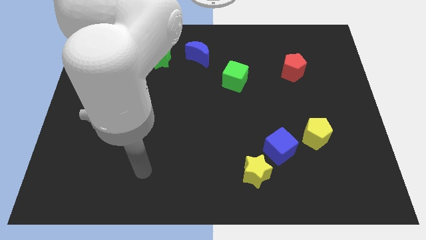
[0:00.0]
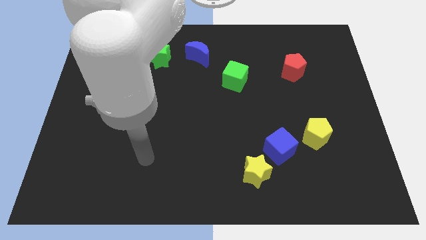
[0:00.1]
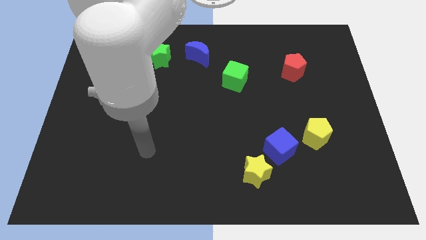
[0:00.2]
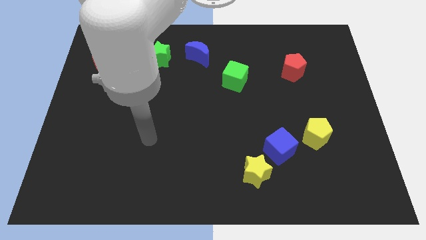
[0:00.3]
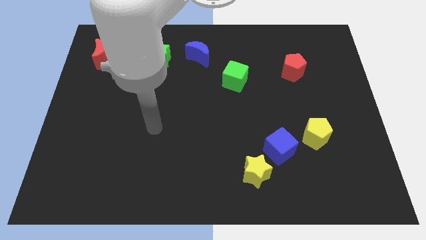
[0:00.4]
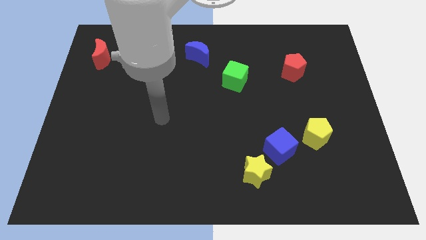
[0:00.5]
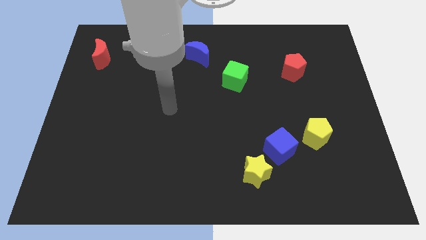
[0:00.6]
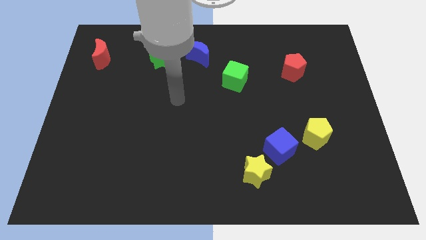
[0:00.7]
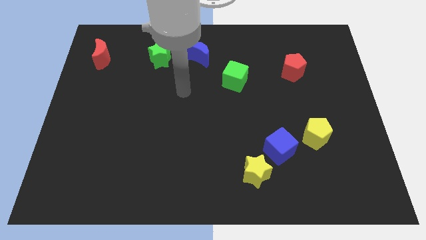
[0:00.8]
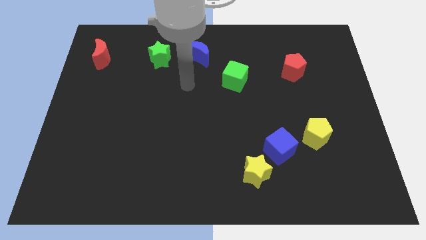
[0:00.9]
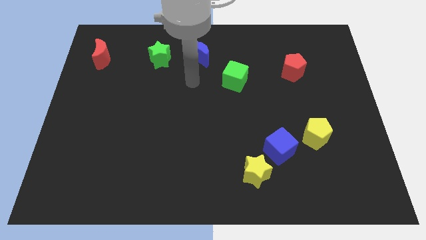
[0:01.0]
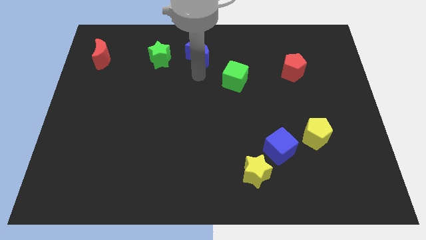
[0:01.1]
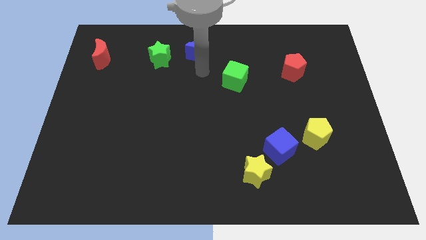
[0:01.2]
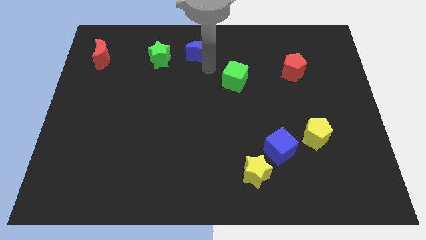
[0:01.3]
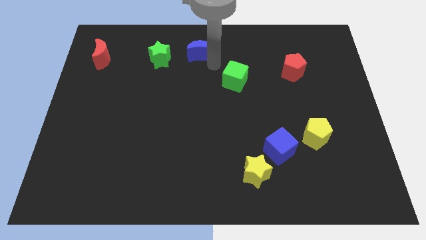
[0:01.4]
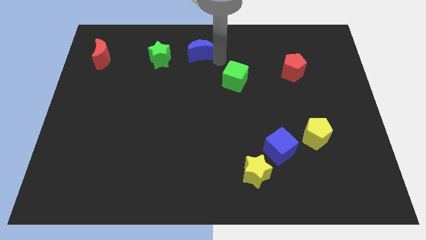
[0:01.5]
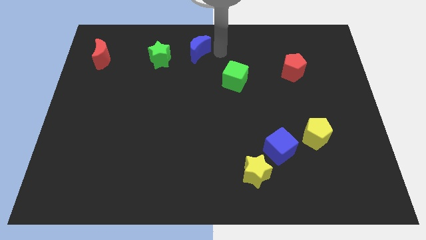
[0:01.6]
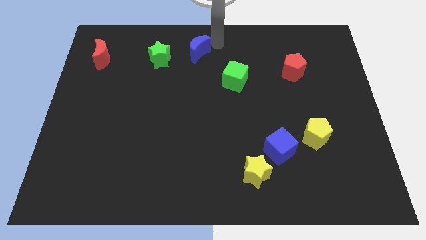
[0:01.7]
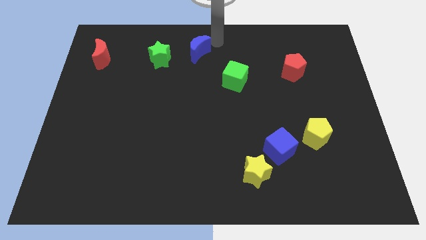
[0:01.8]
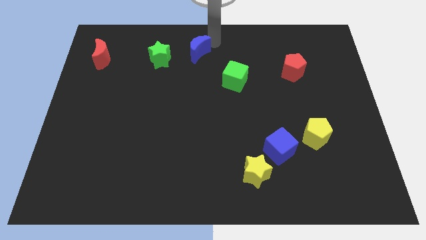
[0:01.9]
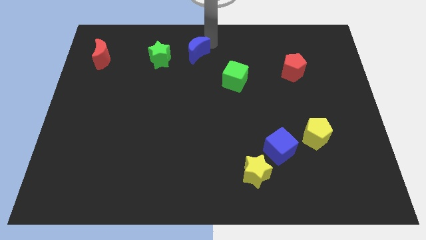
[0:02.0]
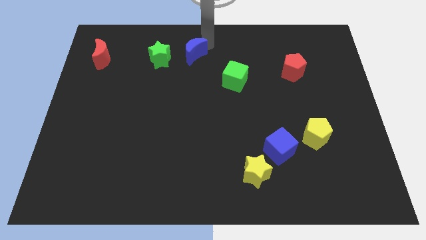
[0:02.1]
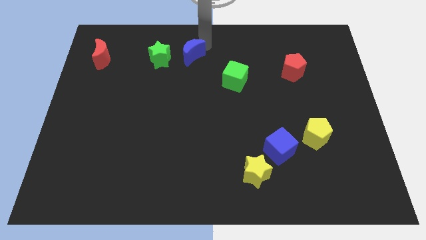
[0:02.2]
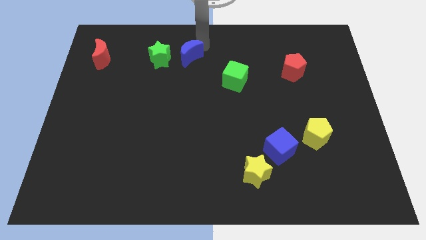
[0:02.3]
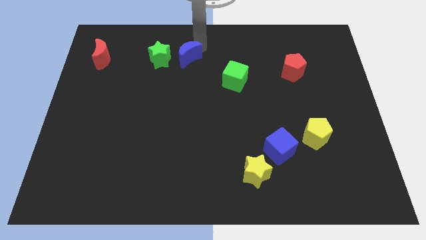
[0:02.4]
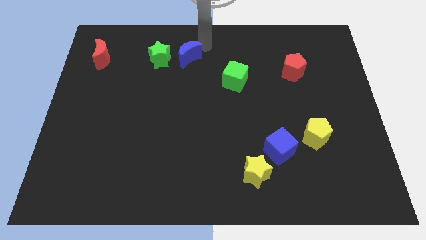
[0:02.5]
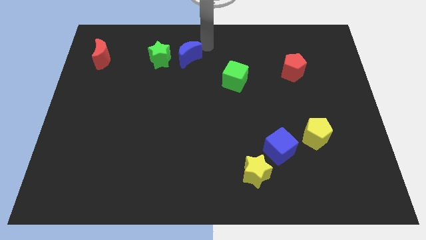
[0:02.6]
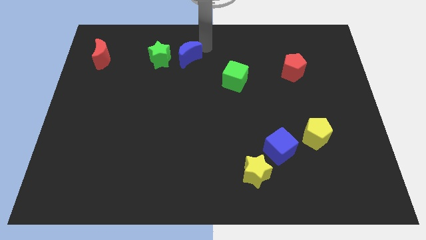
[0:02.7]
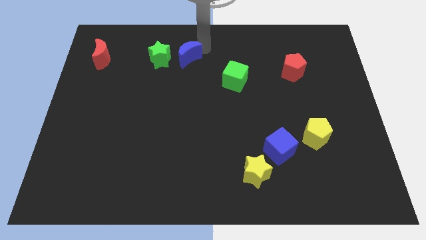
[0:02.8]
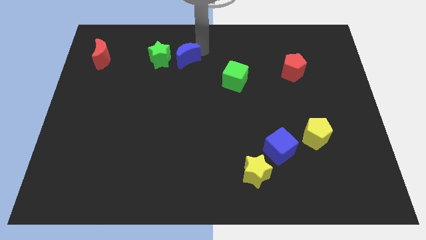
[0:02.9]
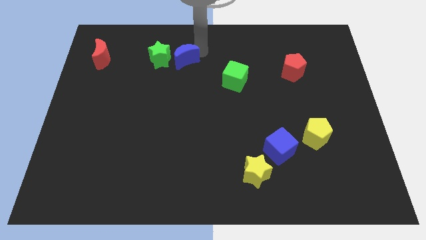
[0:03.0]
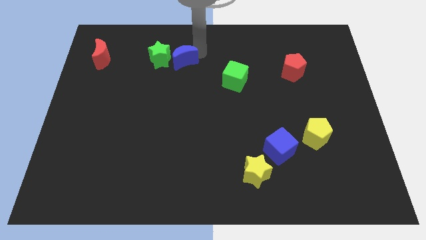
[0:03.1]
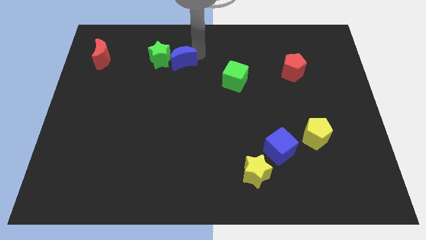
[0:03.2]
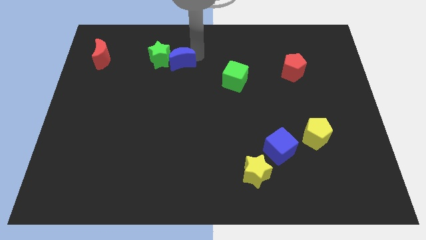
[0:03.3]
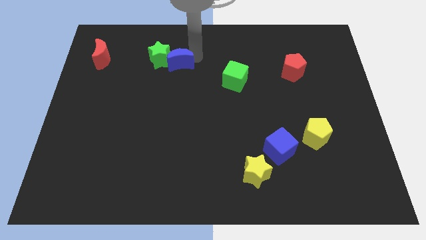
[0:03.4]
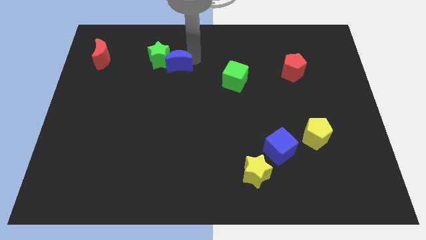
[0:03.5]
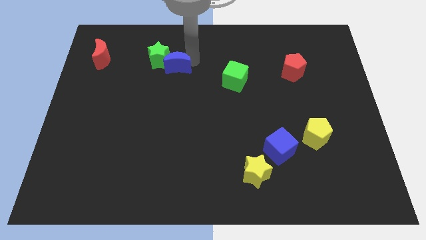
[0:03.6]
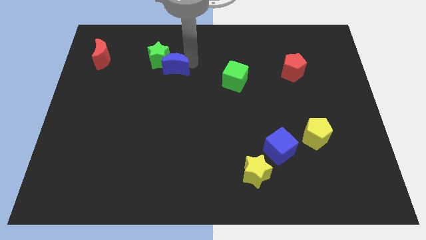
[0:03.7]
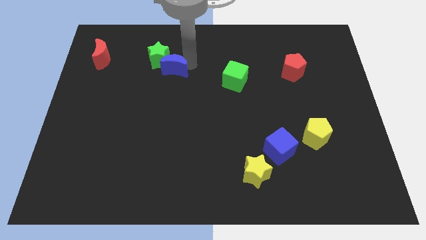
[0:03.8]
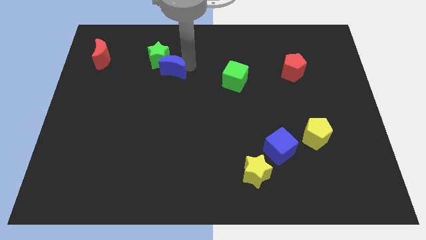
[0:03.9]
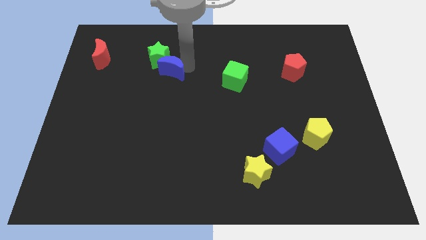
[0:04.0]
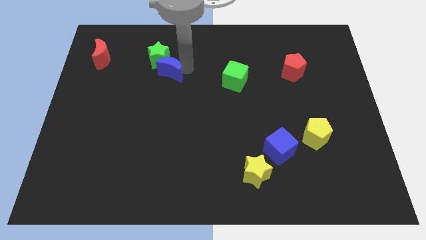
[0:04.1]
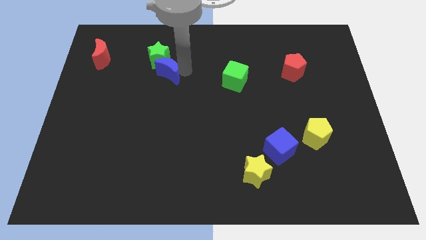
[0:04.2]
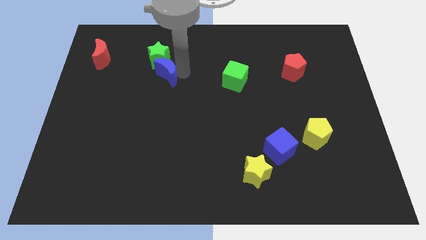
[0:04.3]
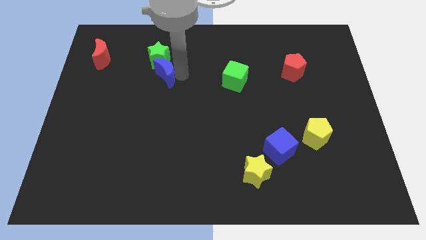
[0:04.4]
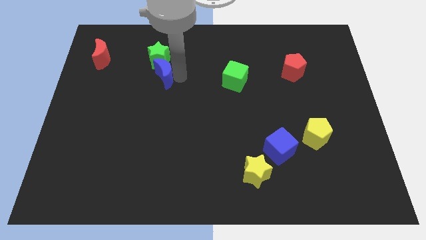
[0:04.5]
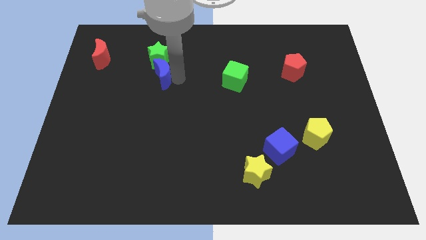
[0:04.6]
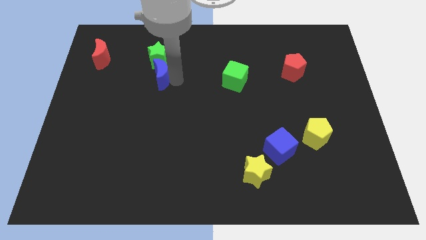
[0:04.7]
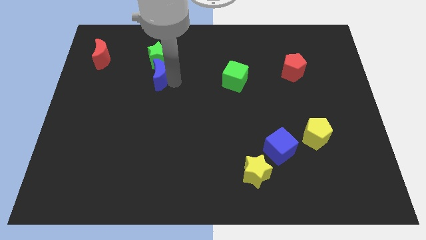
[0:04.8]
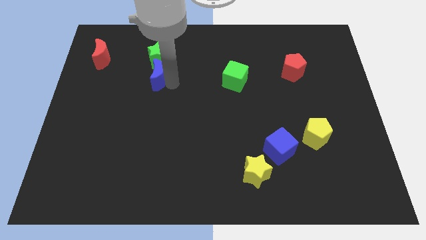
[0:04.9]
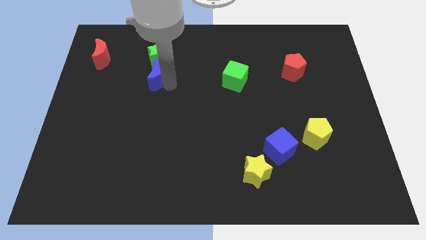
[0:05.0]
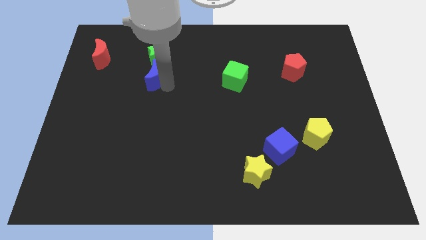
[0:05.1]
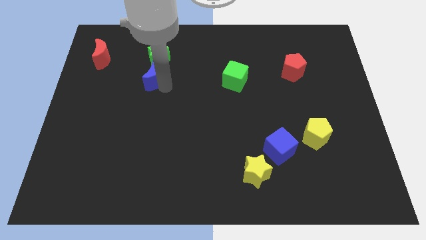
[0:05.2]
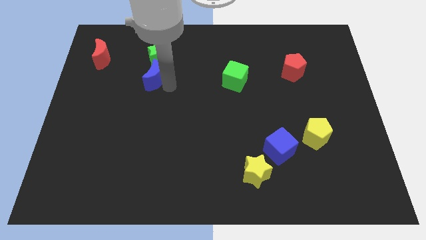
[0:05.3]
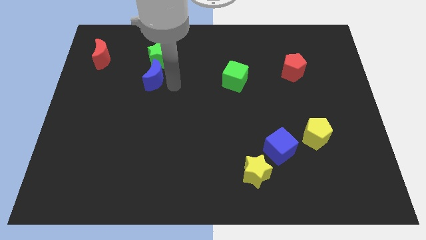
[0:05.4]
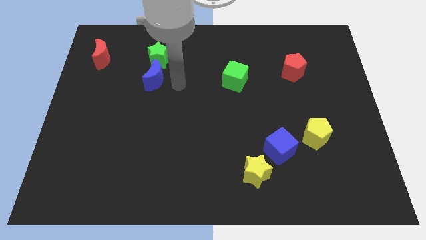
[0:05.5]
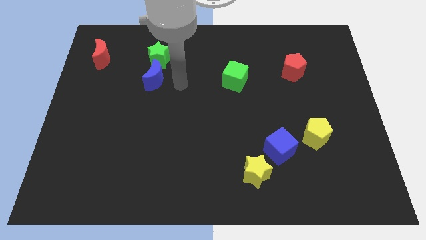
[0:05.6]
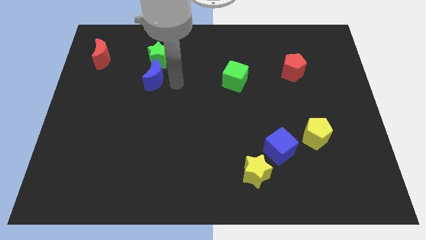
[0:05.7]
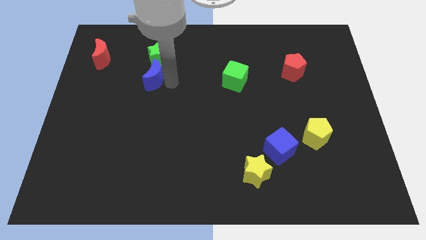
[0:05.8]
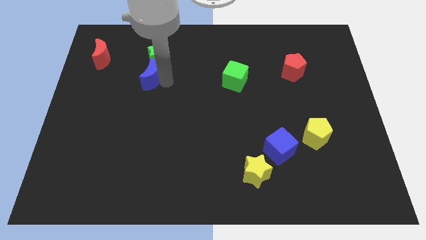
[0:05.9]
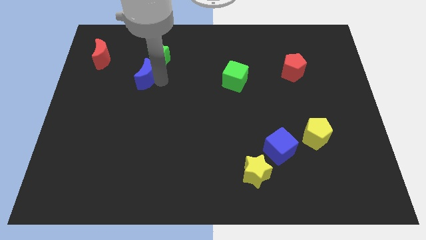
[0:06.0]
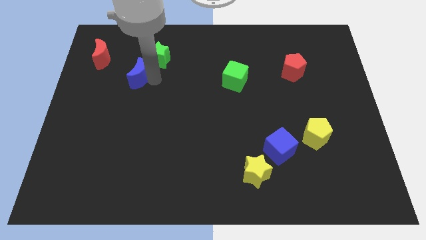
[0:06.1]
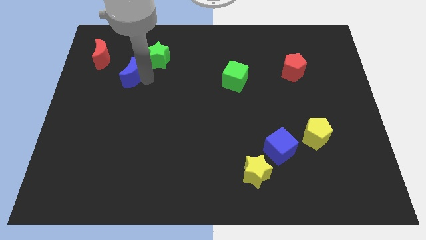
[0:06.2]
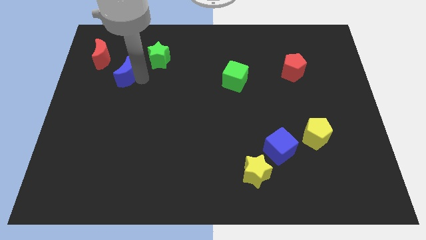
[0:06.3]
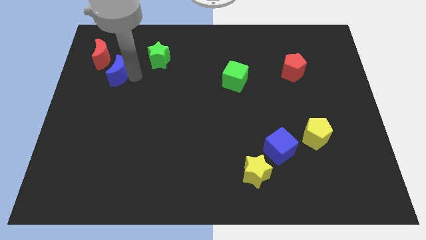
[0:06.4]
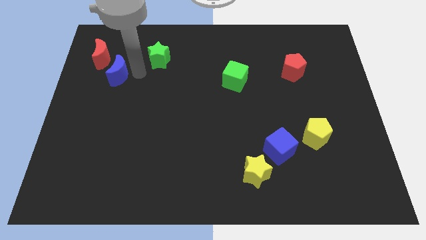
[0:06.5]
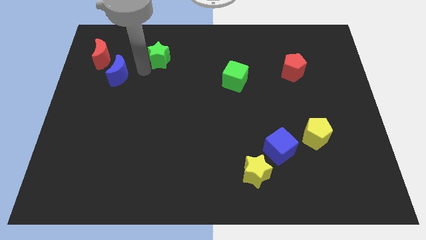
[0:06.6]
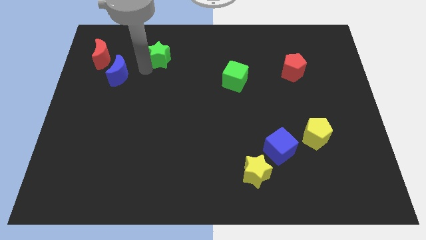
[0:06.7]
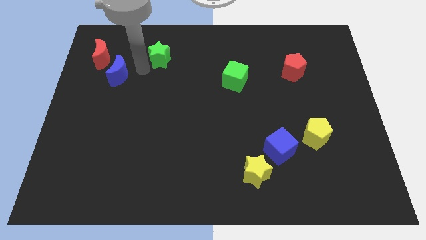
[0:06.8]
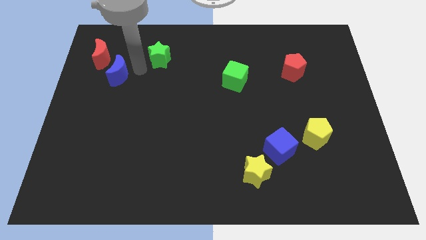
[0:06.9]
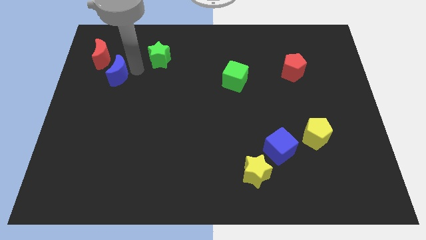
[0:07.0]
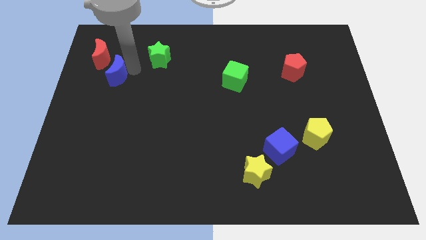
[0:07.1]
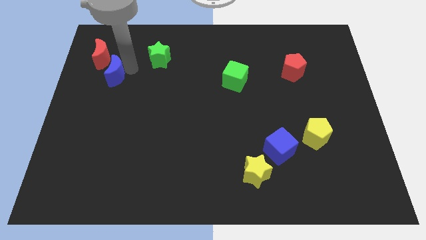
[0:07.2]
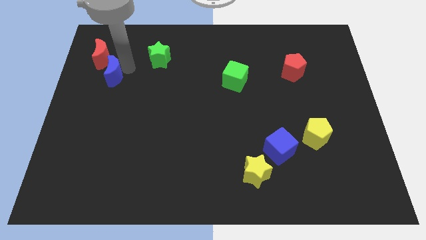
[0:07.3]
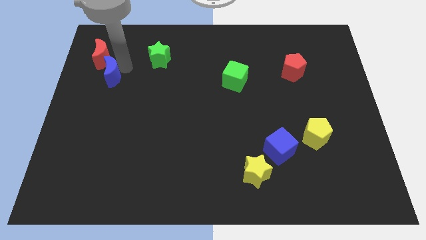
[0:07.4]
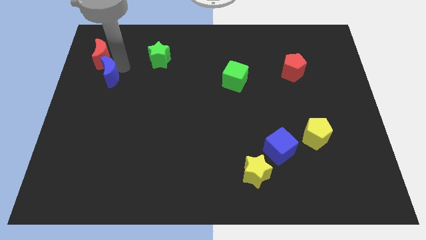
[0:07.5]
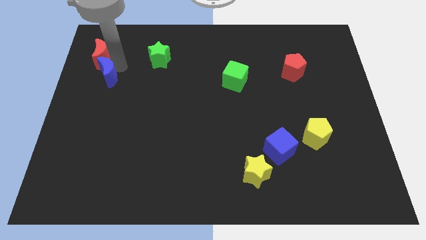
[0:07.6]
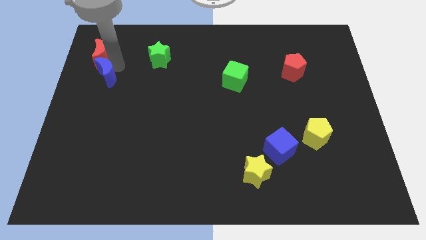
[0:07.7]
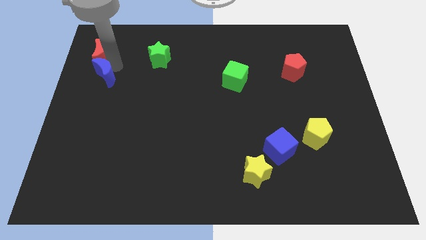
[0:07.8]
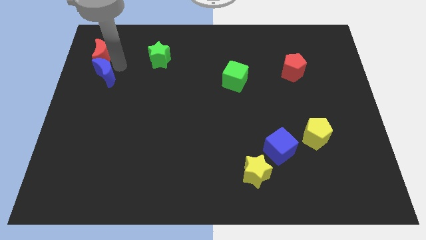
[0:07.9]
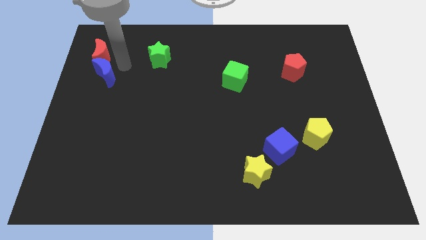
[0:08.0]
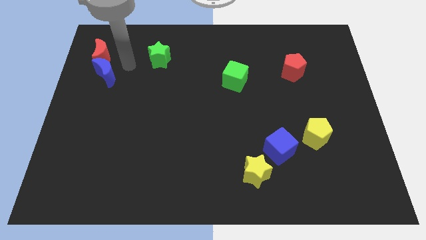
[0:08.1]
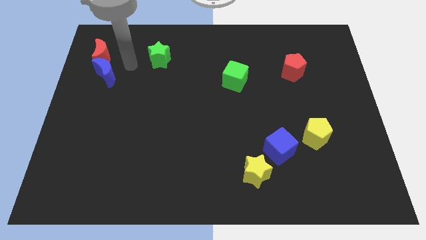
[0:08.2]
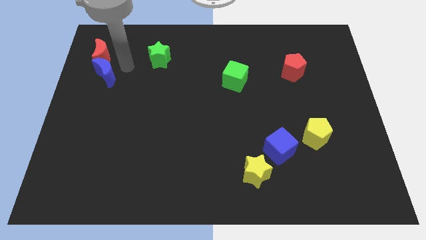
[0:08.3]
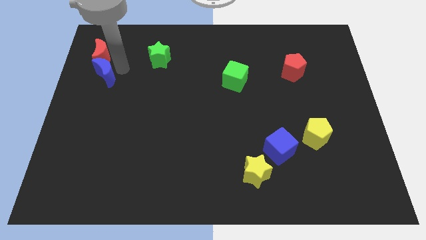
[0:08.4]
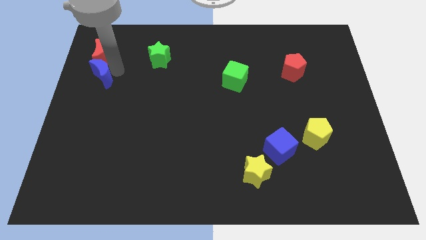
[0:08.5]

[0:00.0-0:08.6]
move the blue moon to the left side of the board
